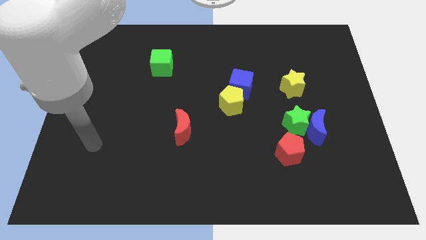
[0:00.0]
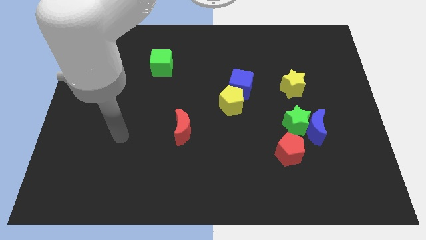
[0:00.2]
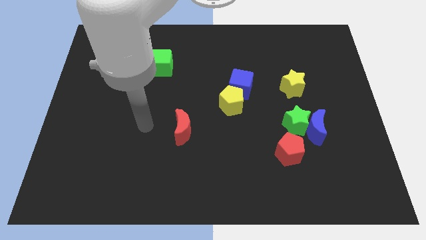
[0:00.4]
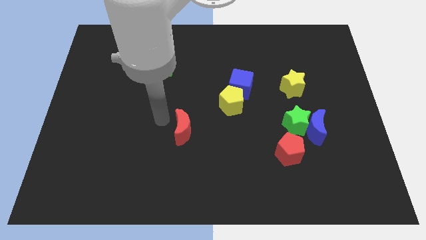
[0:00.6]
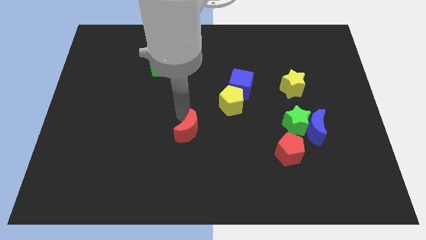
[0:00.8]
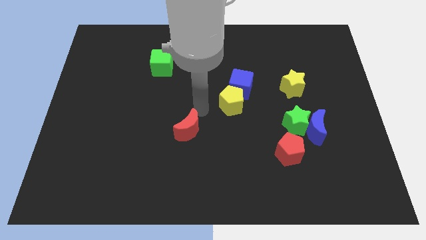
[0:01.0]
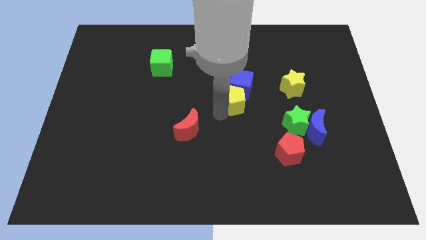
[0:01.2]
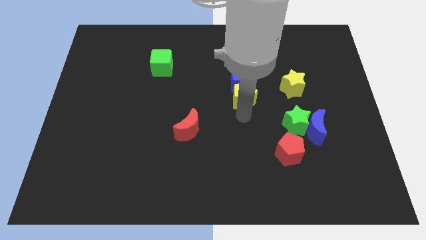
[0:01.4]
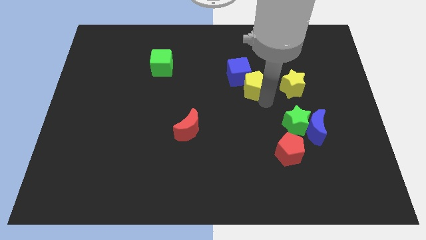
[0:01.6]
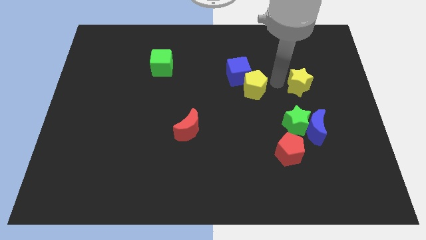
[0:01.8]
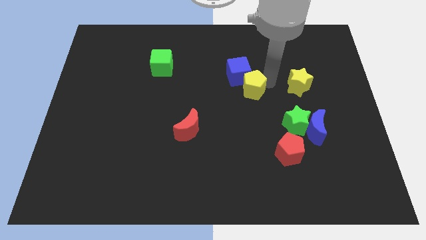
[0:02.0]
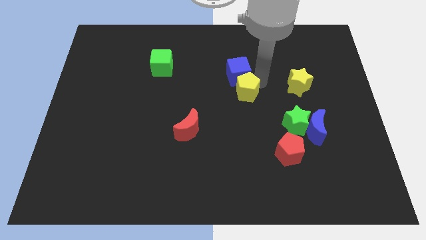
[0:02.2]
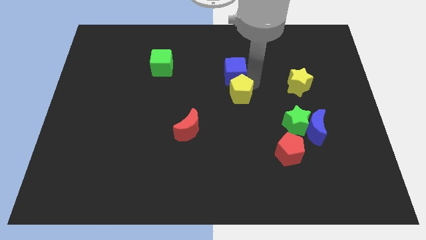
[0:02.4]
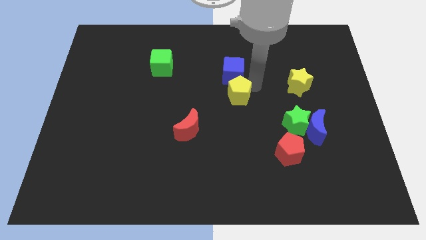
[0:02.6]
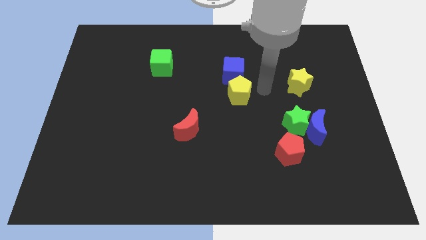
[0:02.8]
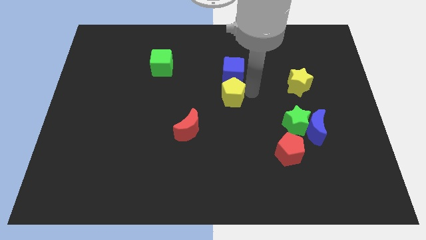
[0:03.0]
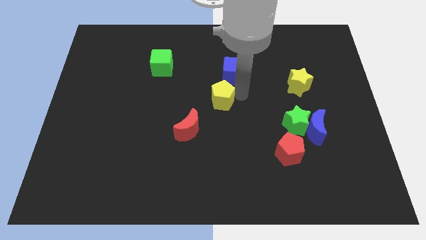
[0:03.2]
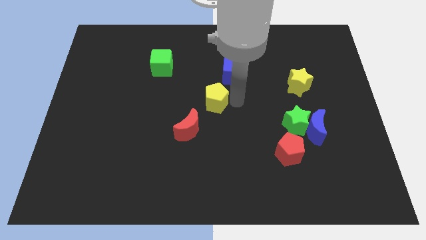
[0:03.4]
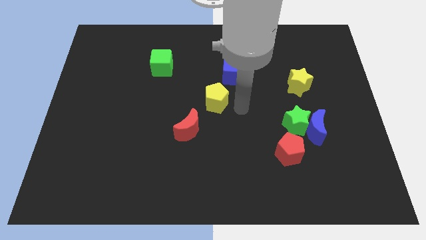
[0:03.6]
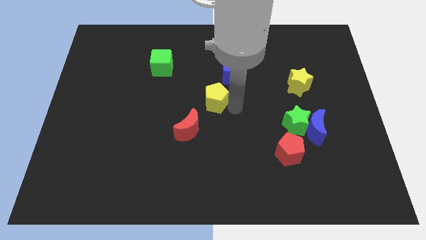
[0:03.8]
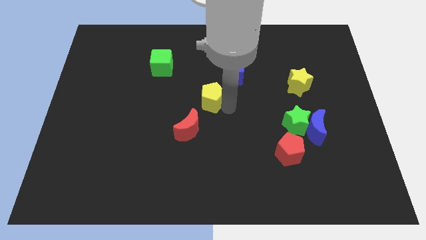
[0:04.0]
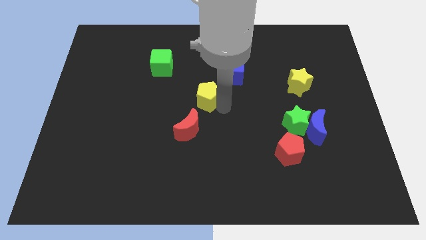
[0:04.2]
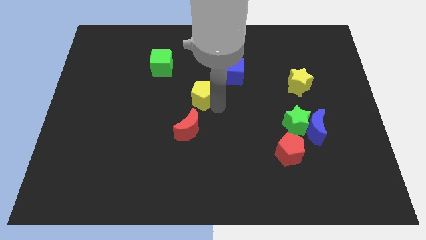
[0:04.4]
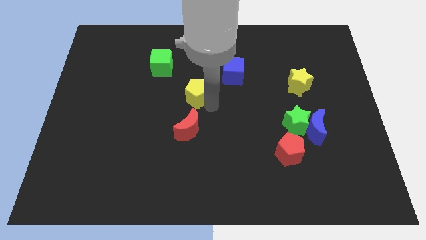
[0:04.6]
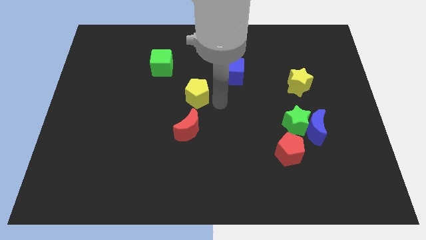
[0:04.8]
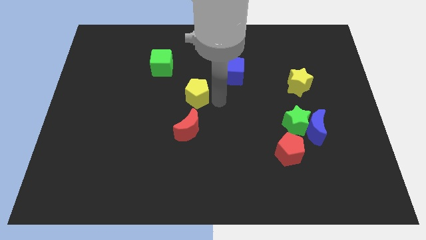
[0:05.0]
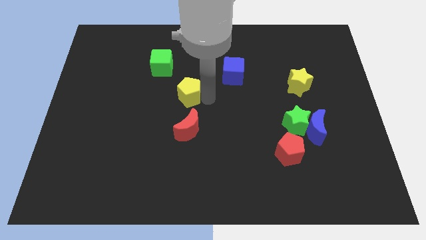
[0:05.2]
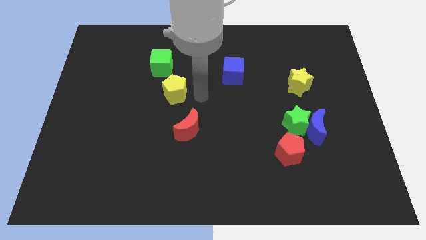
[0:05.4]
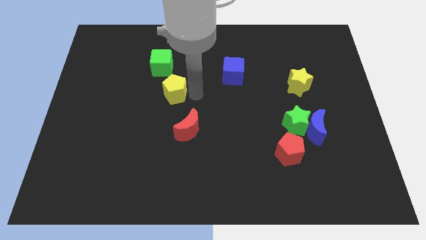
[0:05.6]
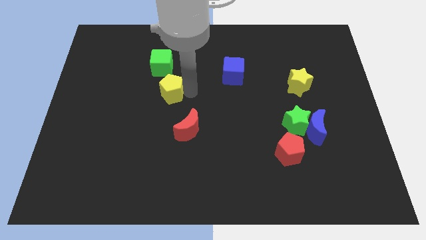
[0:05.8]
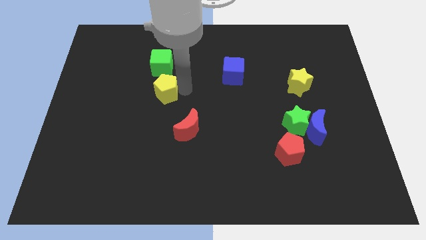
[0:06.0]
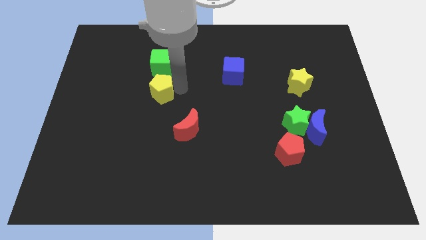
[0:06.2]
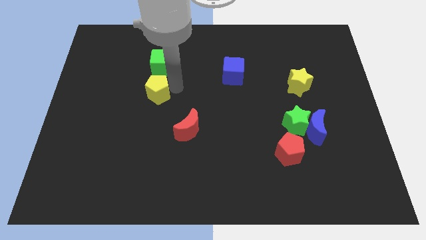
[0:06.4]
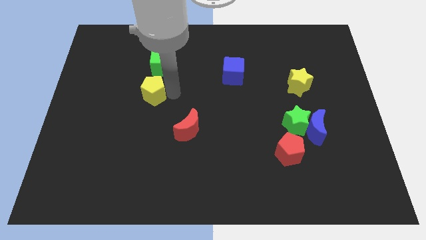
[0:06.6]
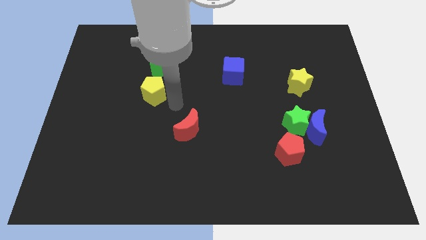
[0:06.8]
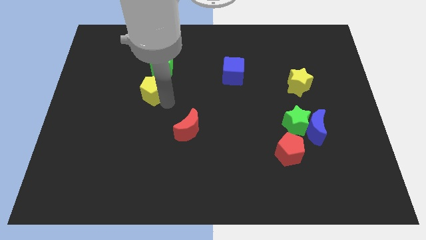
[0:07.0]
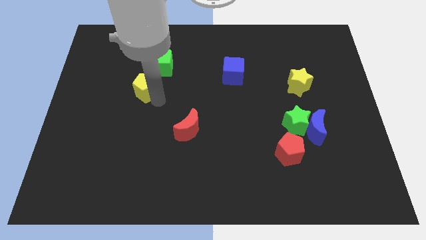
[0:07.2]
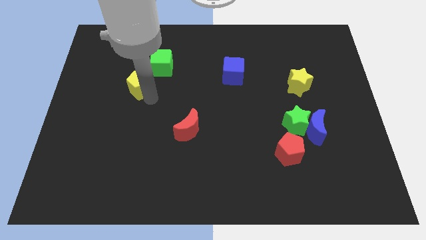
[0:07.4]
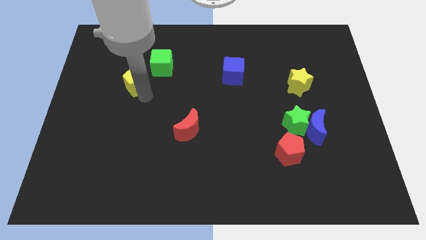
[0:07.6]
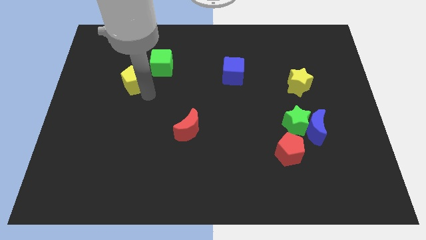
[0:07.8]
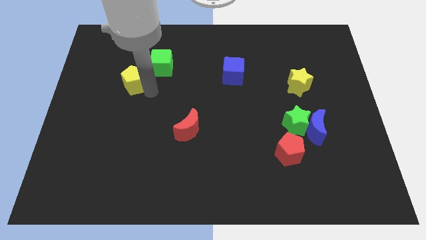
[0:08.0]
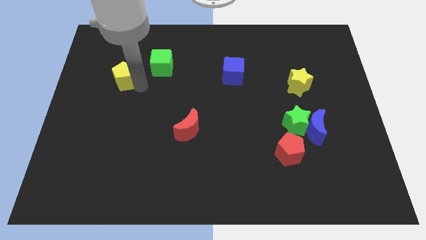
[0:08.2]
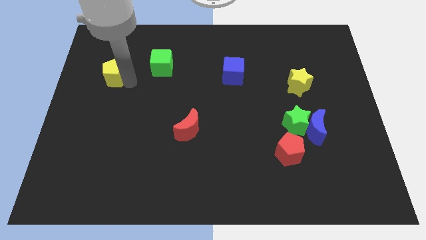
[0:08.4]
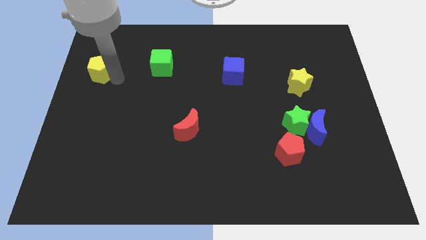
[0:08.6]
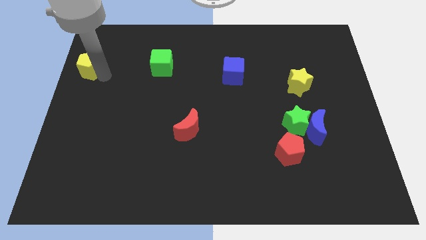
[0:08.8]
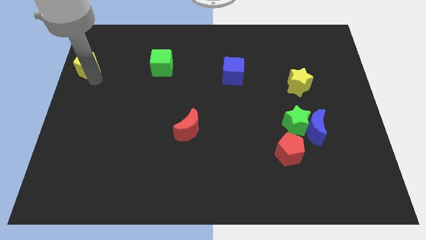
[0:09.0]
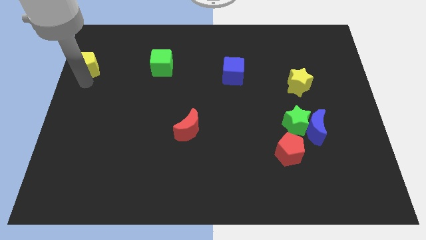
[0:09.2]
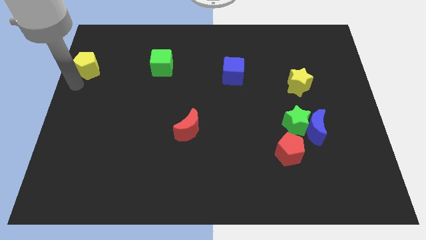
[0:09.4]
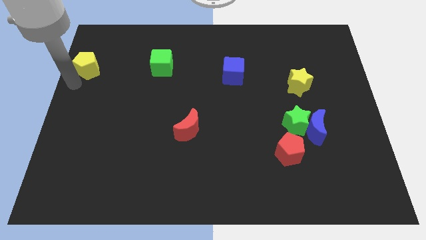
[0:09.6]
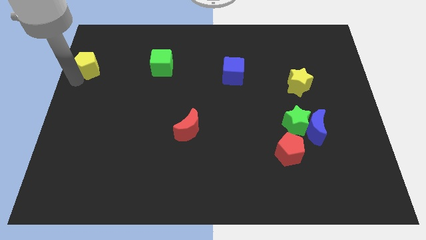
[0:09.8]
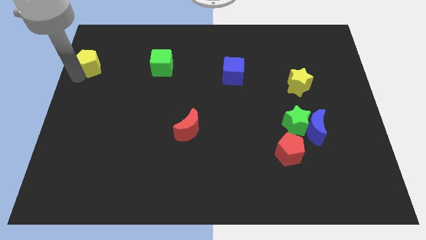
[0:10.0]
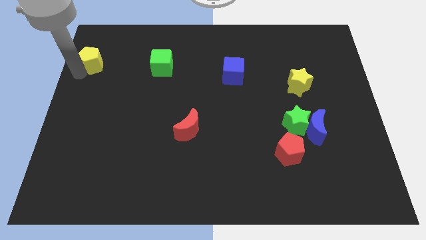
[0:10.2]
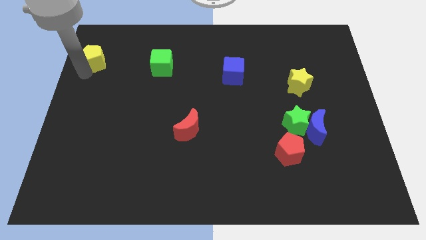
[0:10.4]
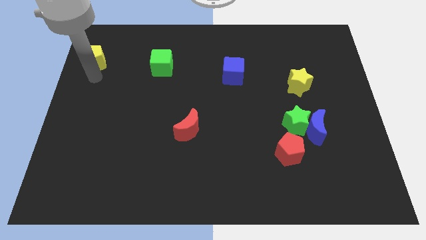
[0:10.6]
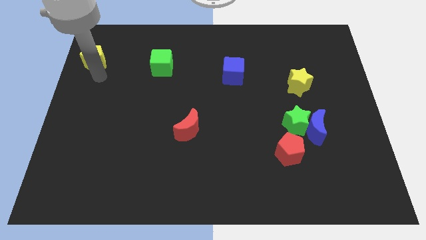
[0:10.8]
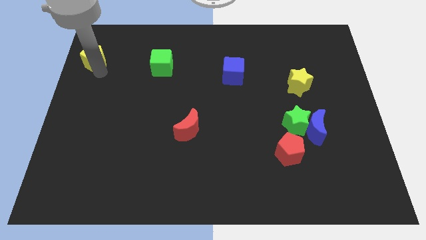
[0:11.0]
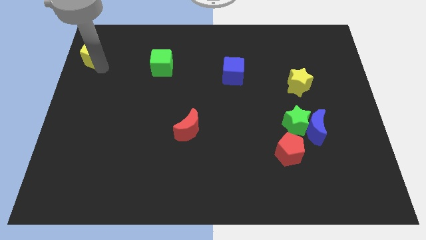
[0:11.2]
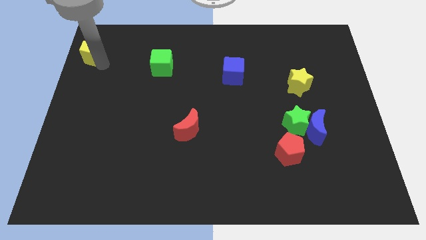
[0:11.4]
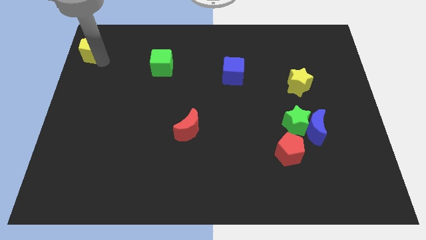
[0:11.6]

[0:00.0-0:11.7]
slide the yellow pentagon to the top left
